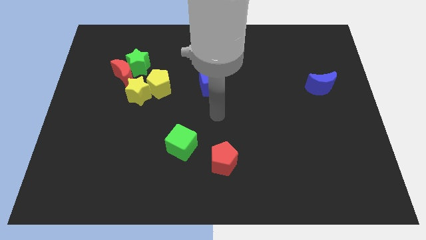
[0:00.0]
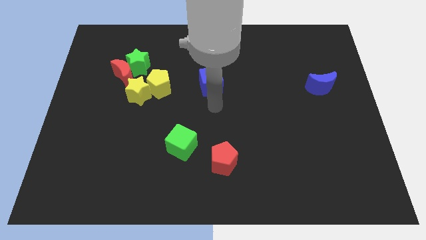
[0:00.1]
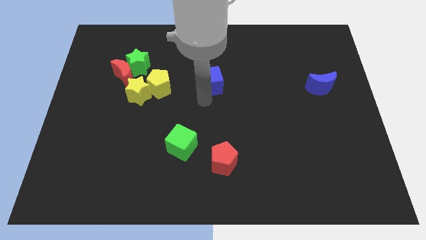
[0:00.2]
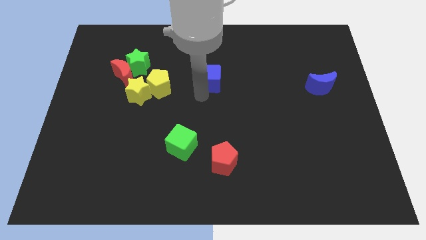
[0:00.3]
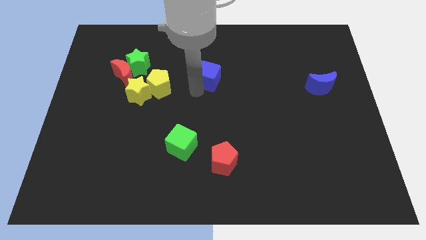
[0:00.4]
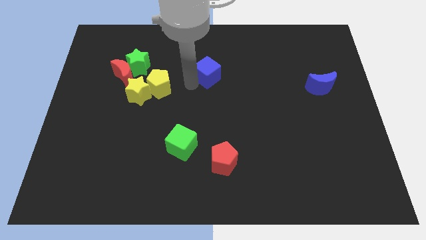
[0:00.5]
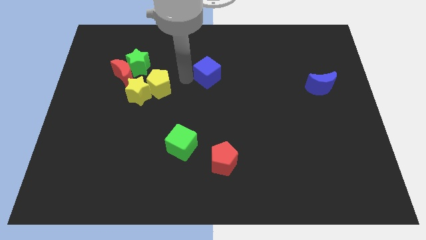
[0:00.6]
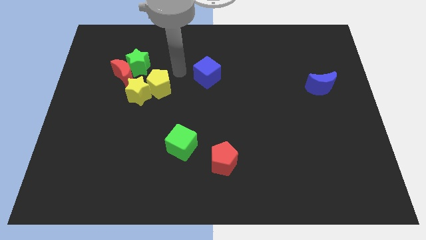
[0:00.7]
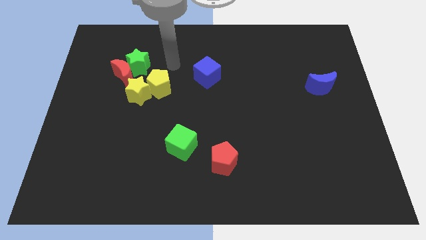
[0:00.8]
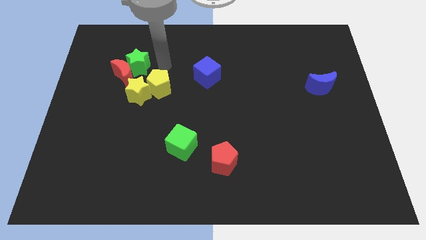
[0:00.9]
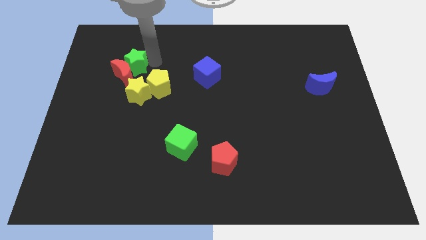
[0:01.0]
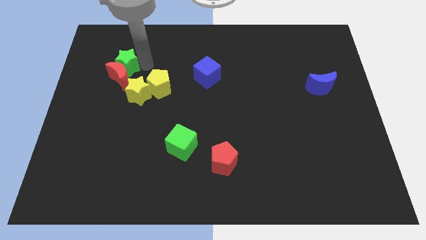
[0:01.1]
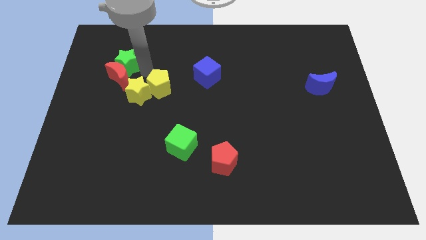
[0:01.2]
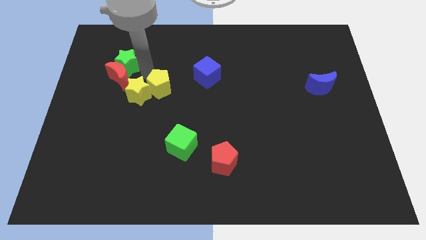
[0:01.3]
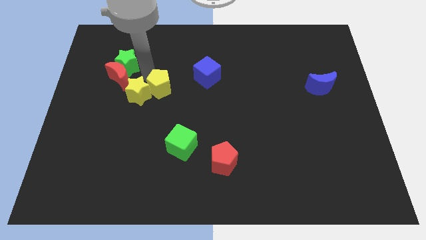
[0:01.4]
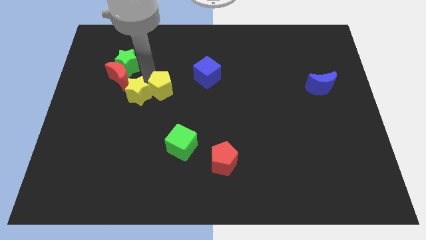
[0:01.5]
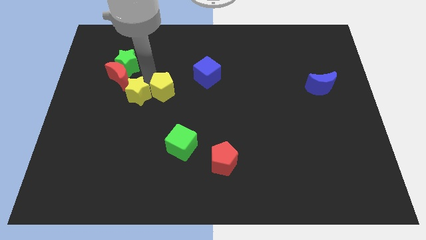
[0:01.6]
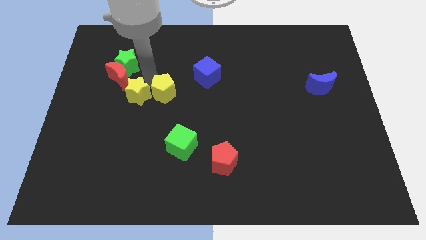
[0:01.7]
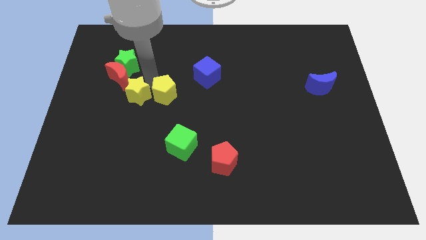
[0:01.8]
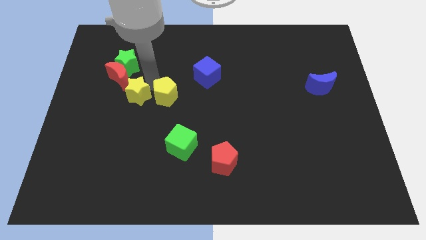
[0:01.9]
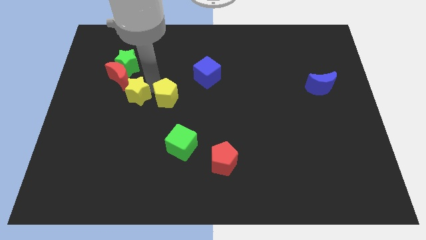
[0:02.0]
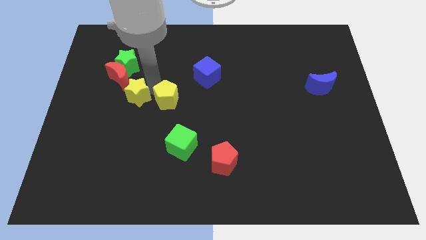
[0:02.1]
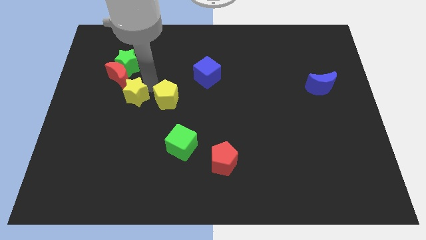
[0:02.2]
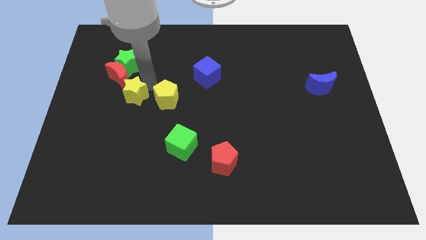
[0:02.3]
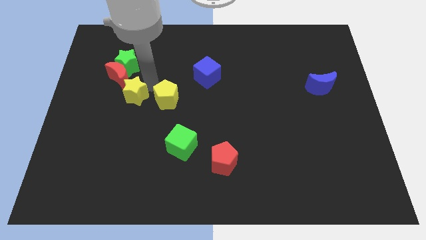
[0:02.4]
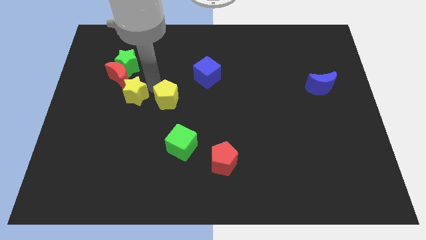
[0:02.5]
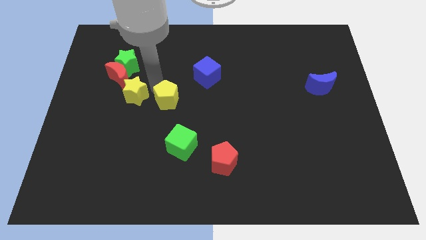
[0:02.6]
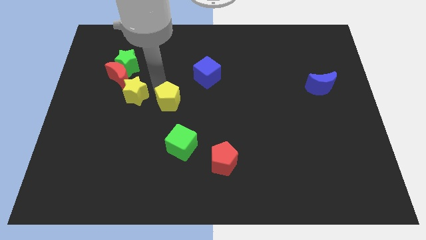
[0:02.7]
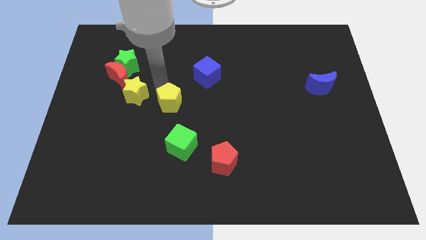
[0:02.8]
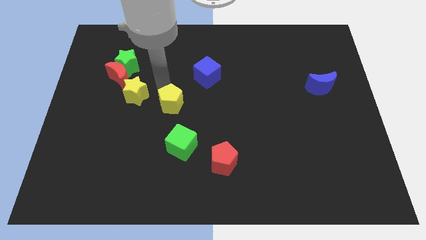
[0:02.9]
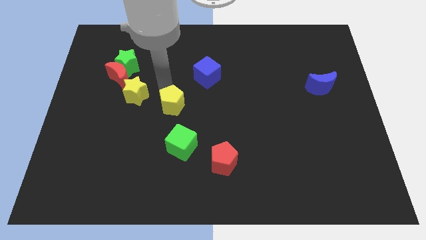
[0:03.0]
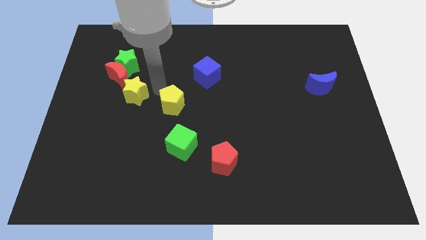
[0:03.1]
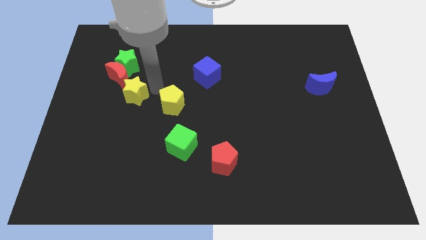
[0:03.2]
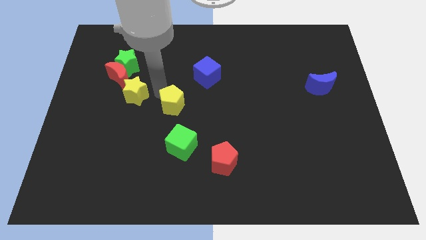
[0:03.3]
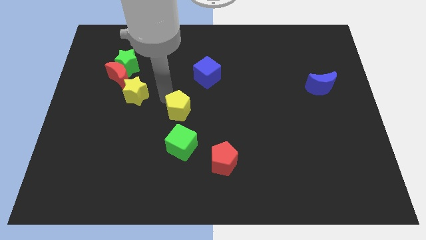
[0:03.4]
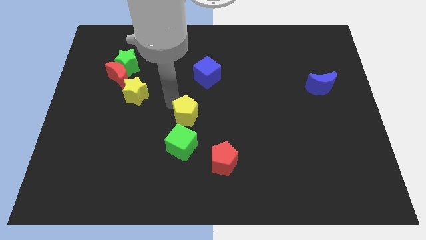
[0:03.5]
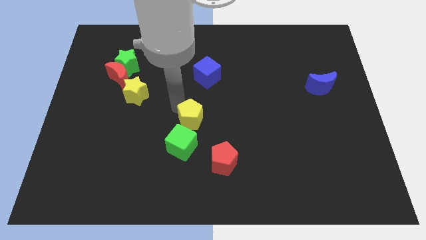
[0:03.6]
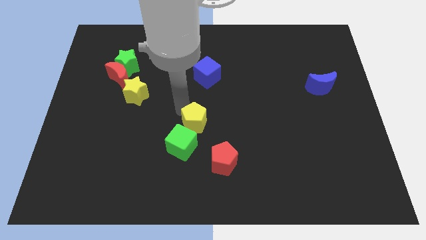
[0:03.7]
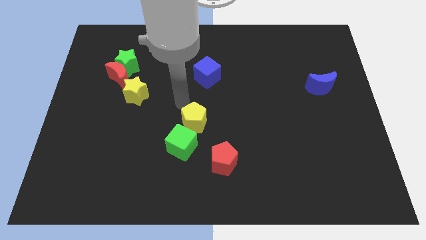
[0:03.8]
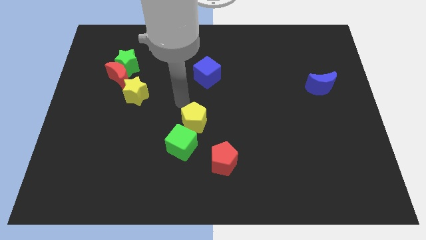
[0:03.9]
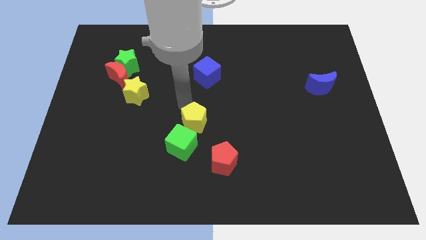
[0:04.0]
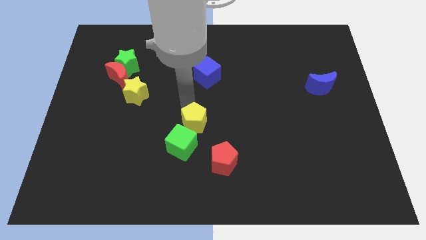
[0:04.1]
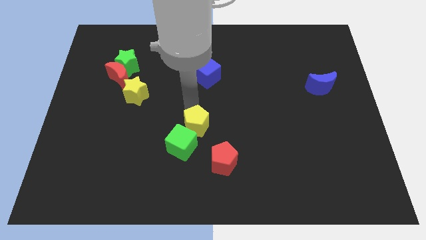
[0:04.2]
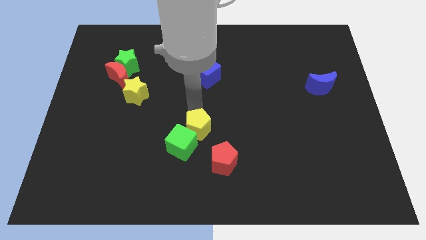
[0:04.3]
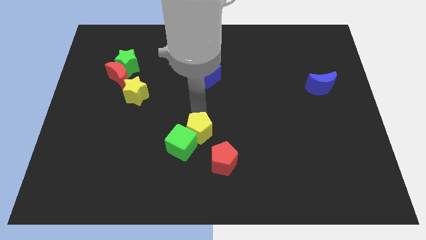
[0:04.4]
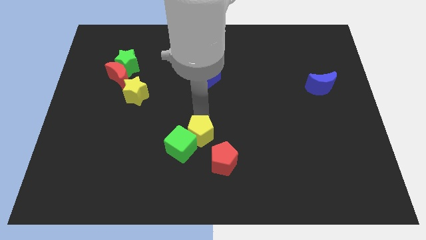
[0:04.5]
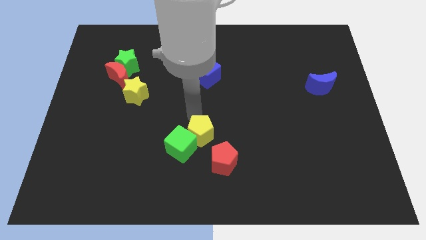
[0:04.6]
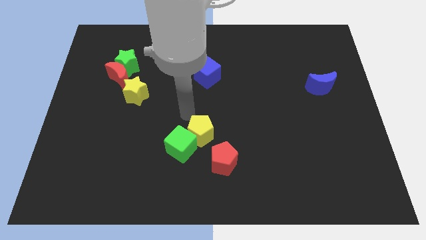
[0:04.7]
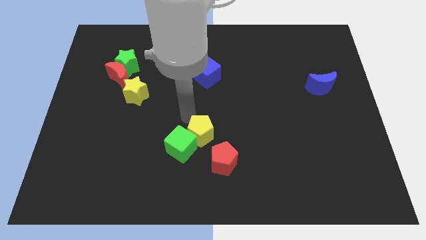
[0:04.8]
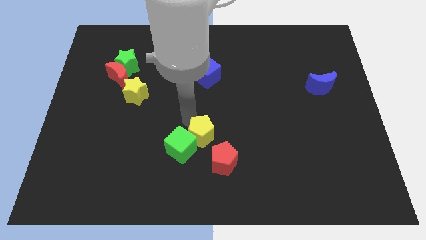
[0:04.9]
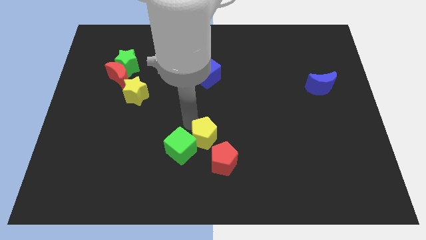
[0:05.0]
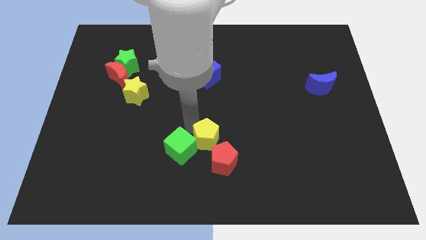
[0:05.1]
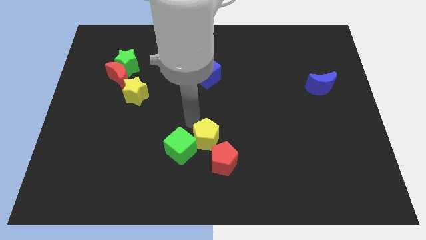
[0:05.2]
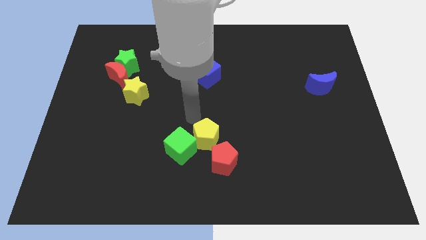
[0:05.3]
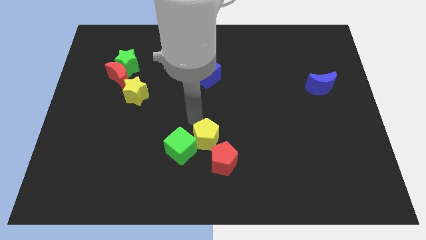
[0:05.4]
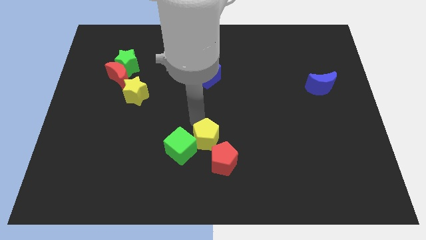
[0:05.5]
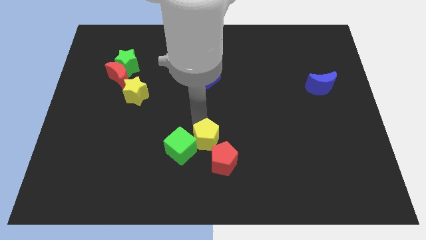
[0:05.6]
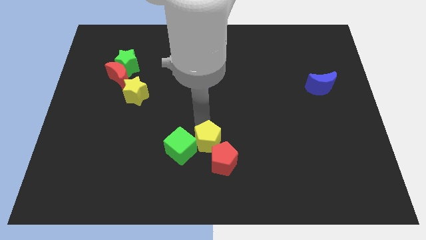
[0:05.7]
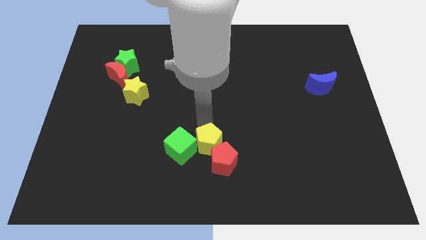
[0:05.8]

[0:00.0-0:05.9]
push the yellow pentagon next to the red pentagon
